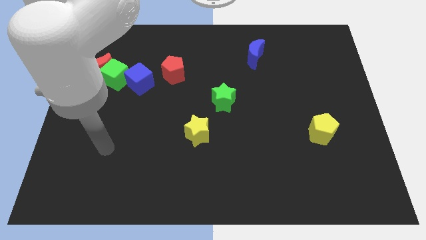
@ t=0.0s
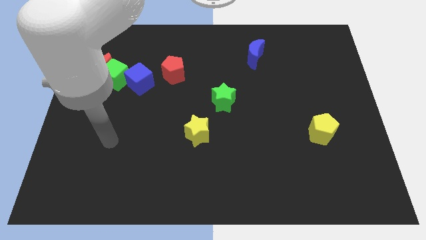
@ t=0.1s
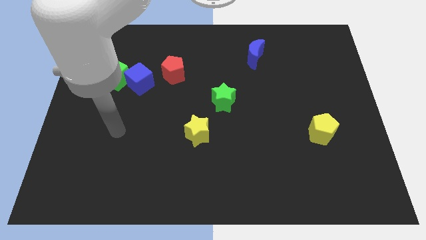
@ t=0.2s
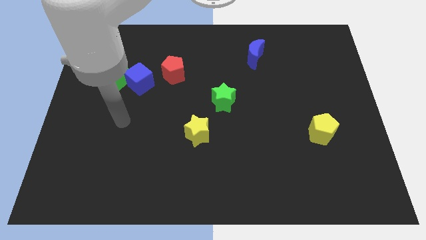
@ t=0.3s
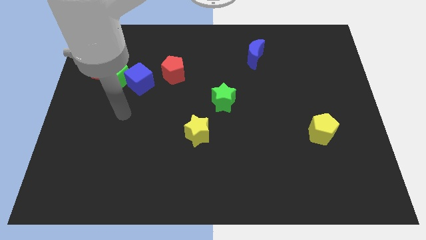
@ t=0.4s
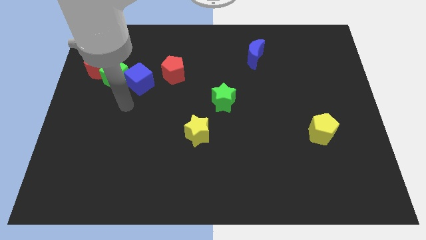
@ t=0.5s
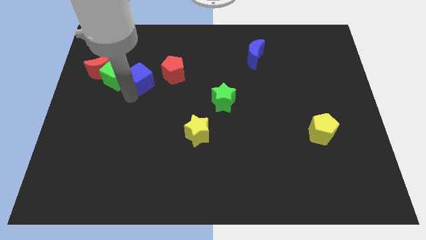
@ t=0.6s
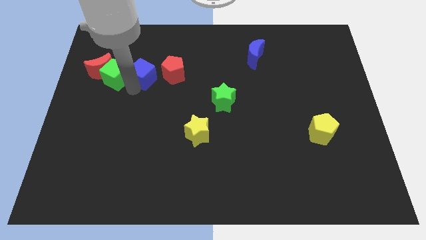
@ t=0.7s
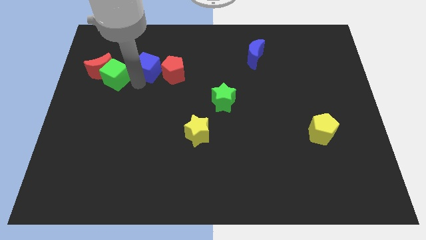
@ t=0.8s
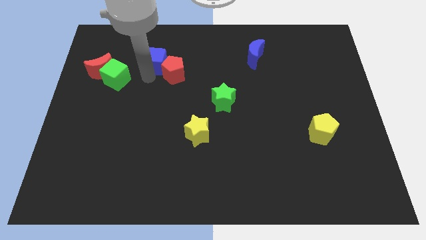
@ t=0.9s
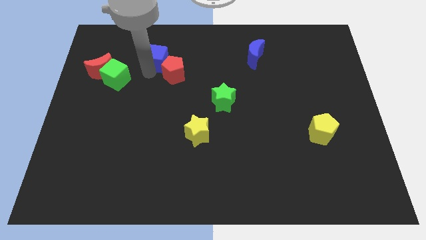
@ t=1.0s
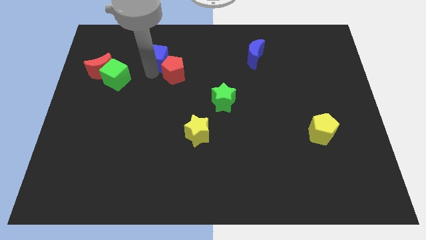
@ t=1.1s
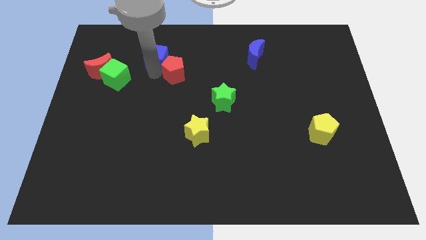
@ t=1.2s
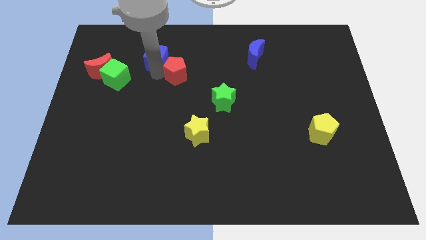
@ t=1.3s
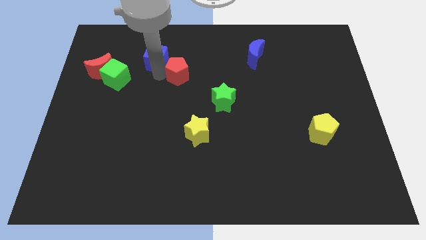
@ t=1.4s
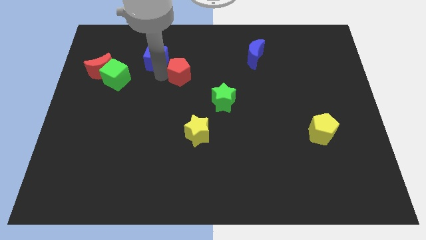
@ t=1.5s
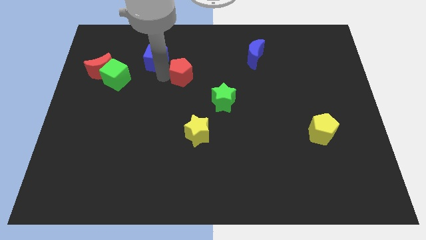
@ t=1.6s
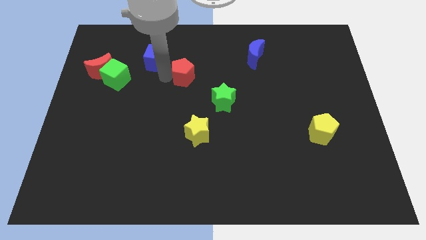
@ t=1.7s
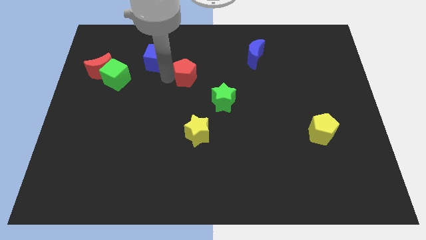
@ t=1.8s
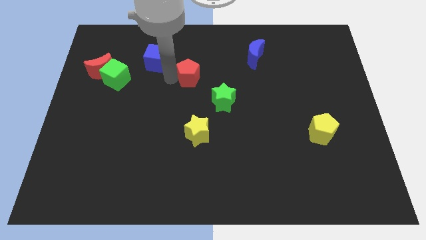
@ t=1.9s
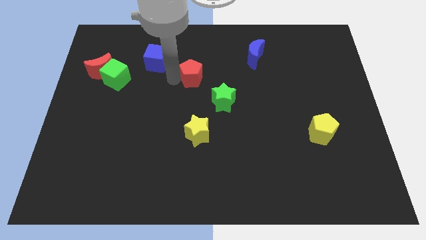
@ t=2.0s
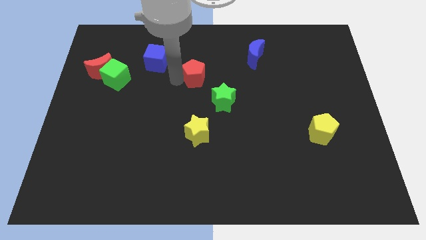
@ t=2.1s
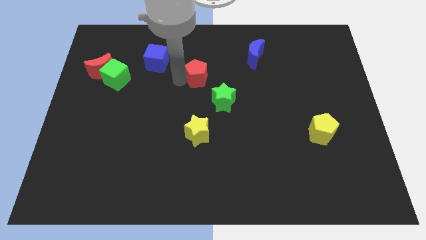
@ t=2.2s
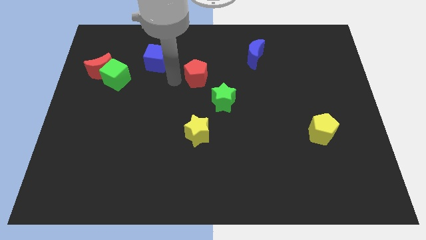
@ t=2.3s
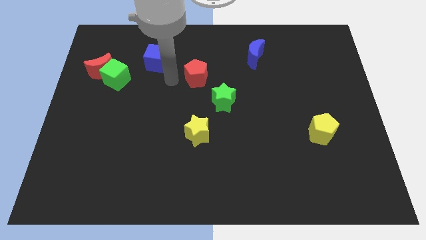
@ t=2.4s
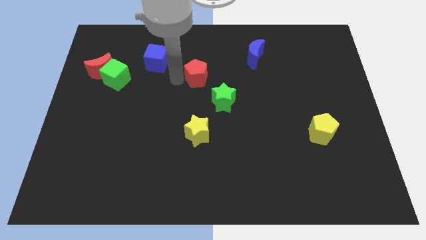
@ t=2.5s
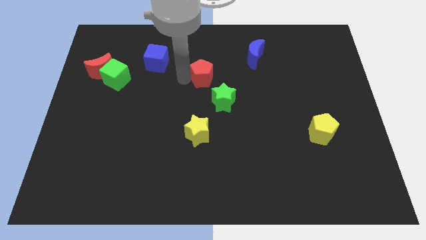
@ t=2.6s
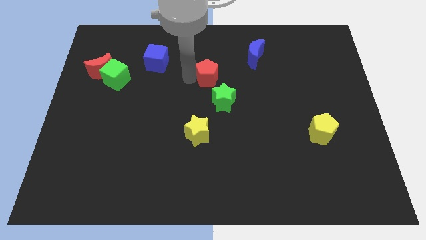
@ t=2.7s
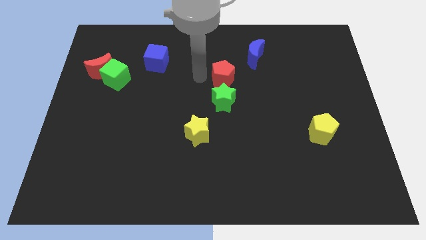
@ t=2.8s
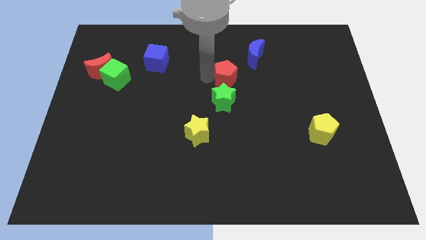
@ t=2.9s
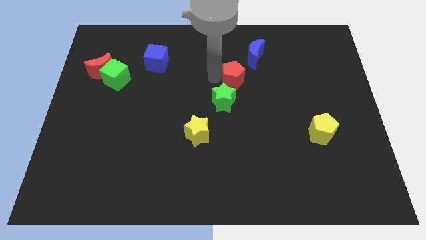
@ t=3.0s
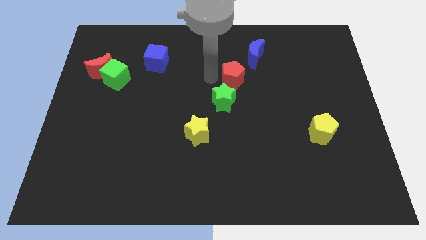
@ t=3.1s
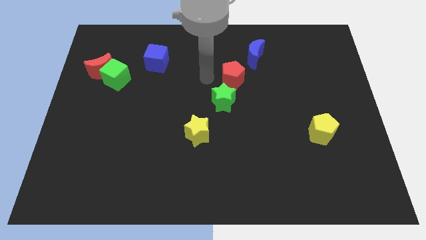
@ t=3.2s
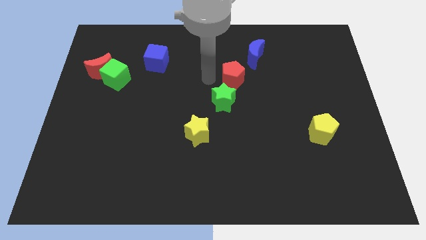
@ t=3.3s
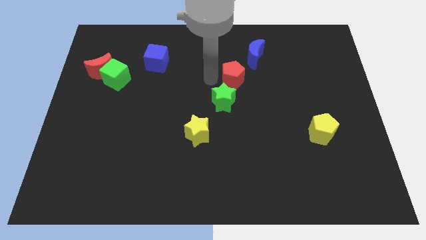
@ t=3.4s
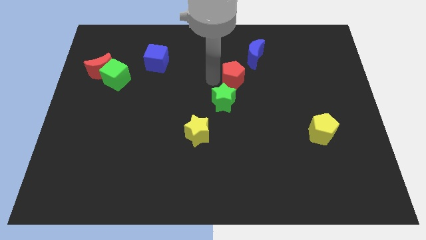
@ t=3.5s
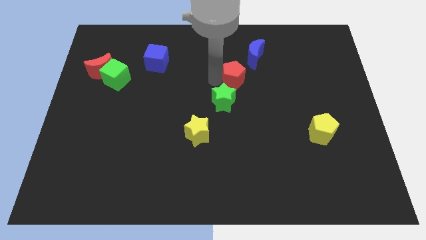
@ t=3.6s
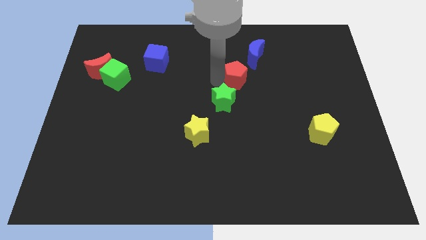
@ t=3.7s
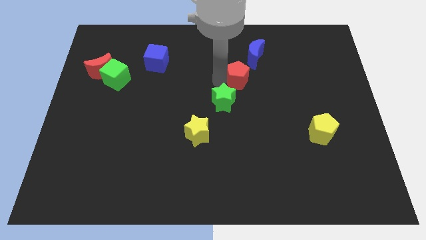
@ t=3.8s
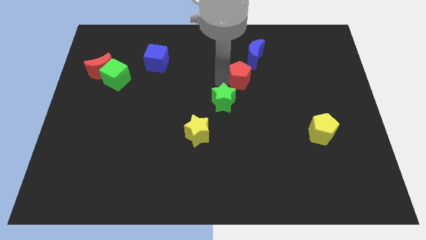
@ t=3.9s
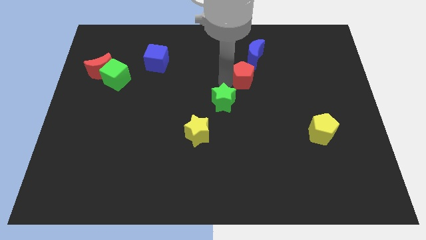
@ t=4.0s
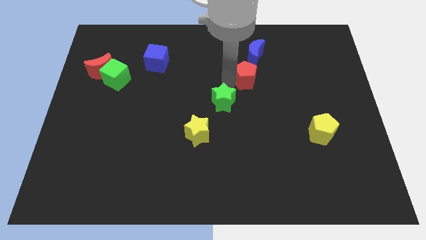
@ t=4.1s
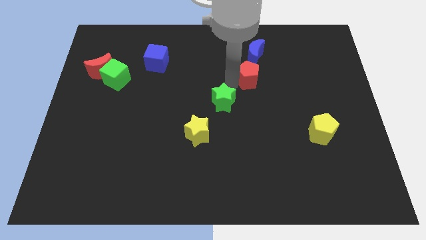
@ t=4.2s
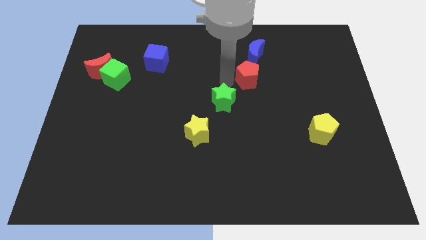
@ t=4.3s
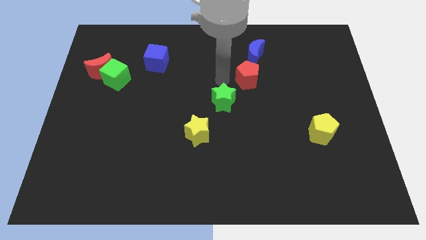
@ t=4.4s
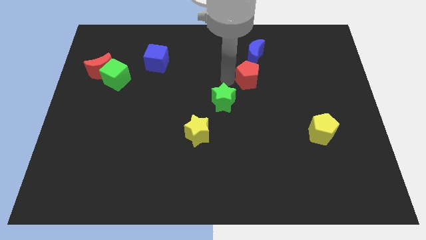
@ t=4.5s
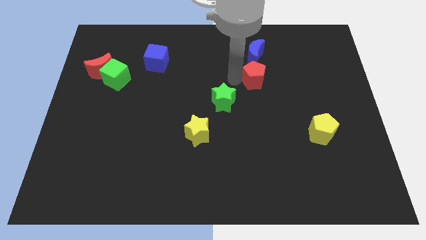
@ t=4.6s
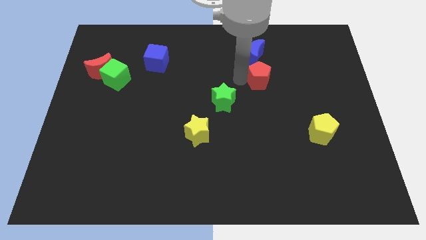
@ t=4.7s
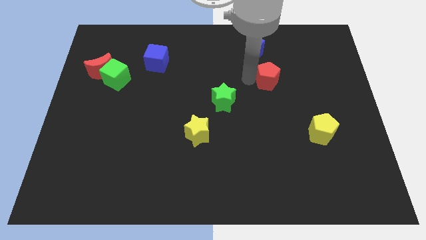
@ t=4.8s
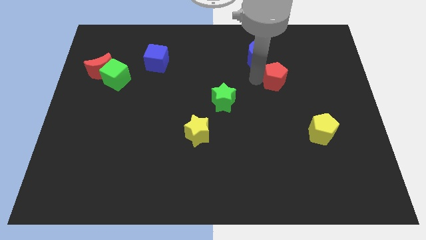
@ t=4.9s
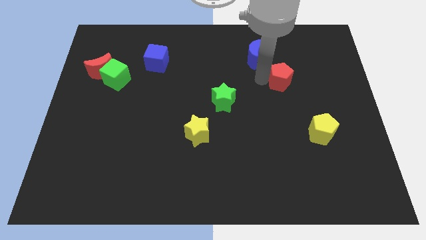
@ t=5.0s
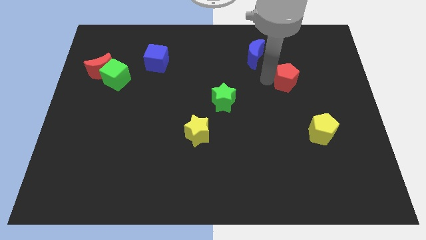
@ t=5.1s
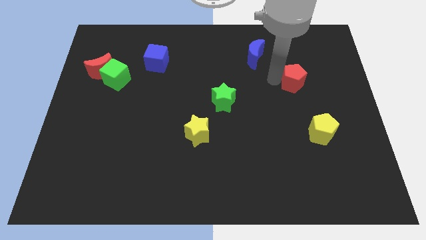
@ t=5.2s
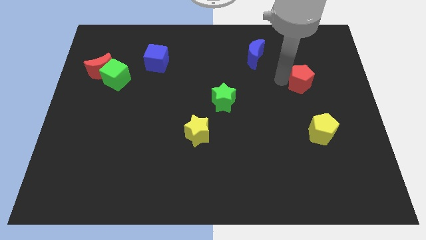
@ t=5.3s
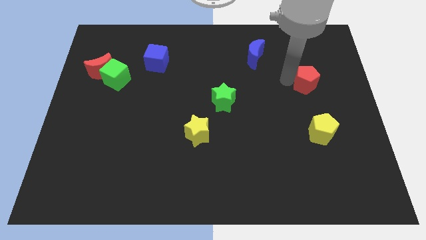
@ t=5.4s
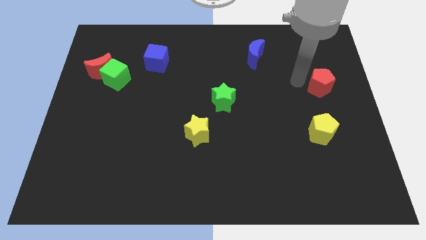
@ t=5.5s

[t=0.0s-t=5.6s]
put the red pentagon to the right side
